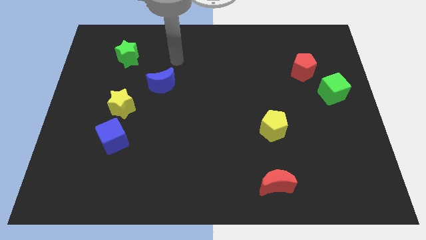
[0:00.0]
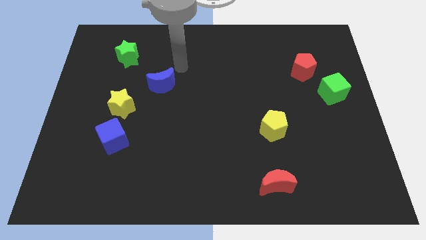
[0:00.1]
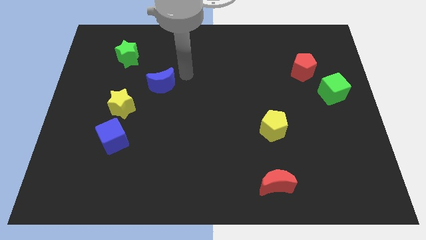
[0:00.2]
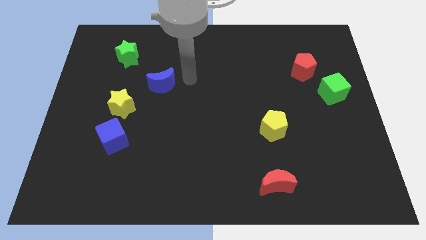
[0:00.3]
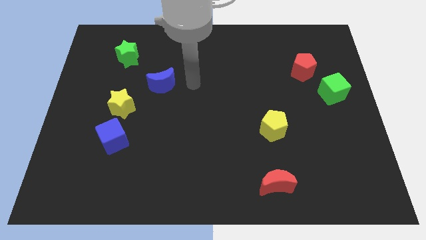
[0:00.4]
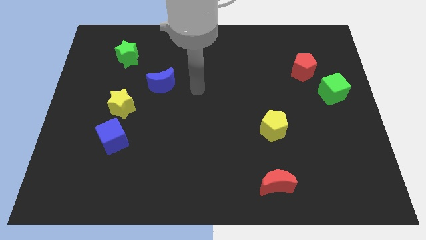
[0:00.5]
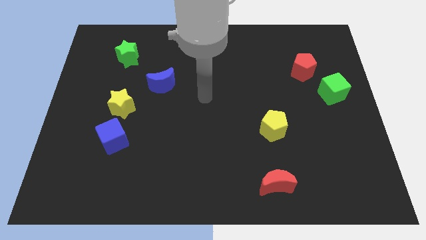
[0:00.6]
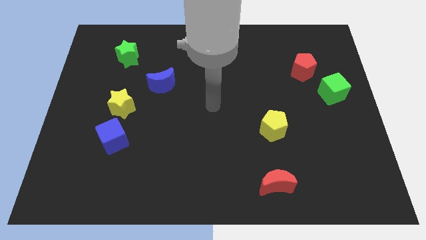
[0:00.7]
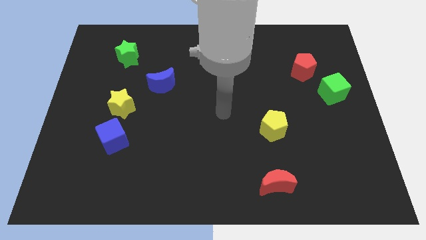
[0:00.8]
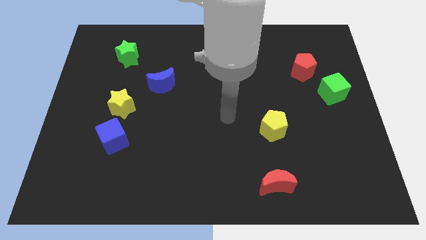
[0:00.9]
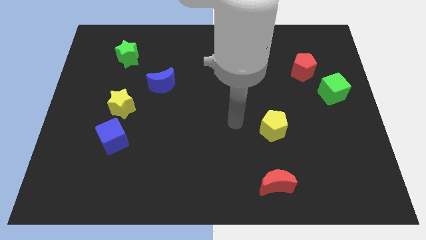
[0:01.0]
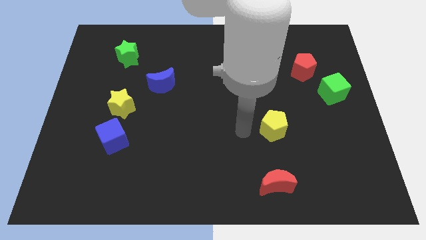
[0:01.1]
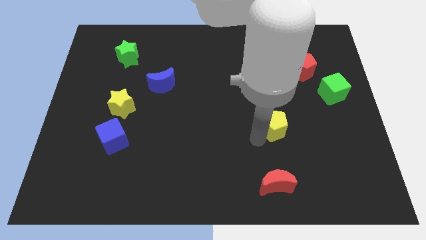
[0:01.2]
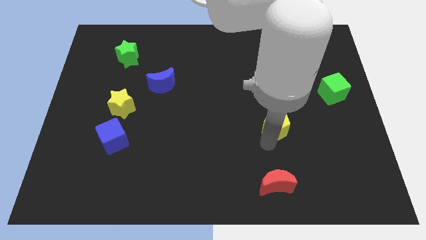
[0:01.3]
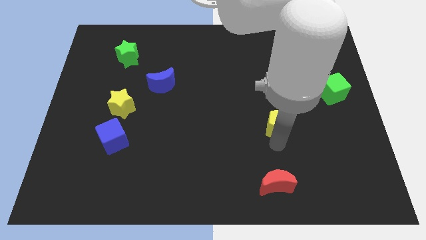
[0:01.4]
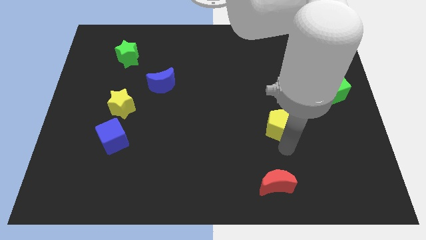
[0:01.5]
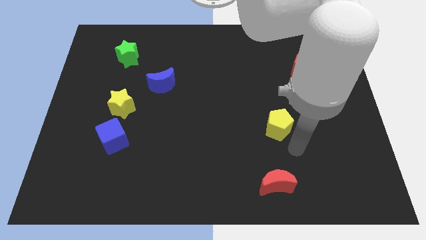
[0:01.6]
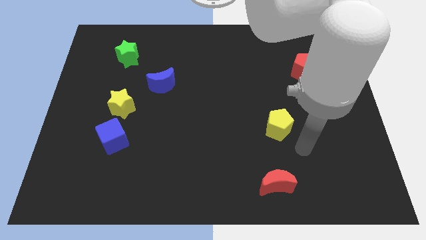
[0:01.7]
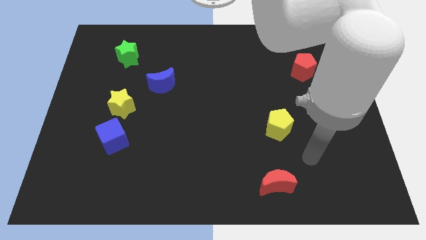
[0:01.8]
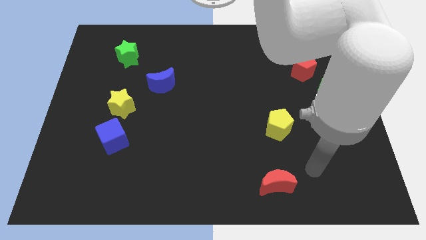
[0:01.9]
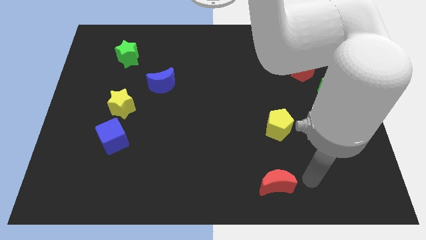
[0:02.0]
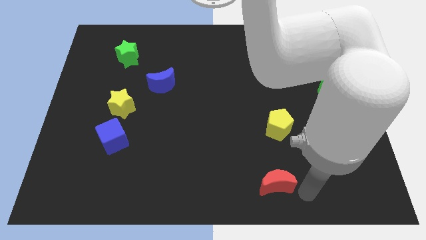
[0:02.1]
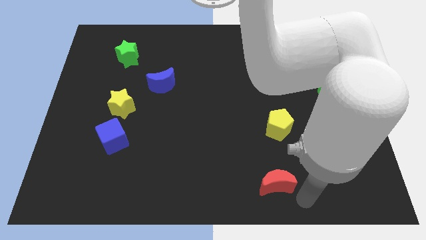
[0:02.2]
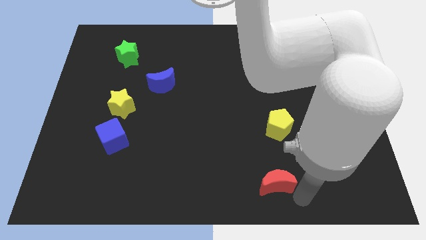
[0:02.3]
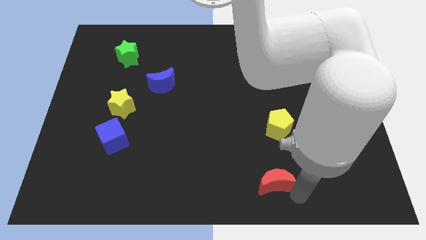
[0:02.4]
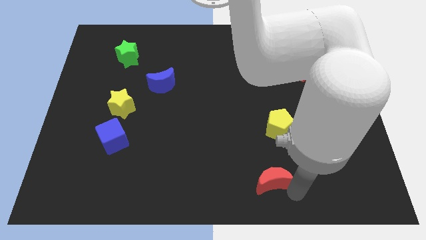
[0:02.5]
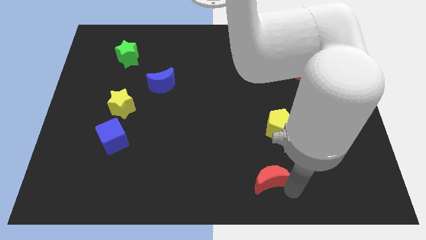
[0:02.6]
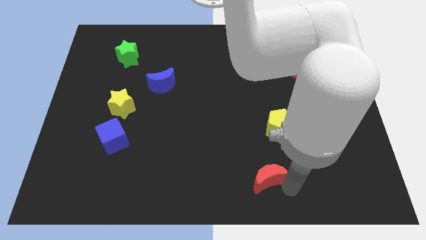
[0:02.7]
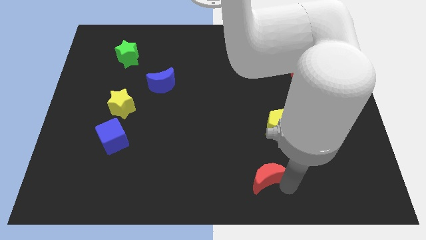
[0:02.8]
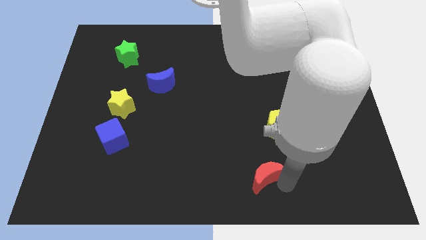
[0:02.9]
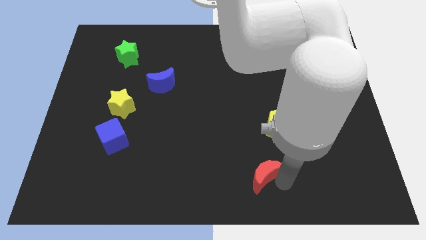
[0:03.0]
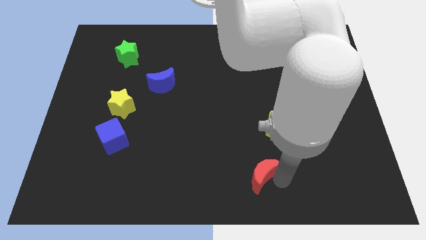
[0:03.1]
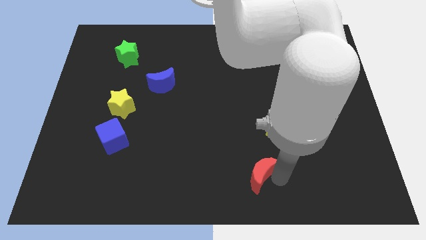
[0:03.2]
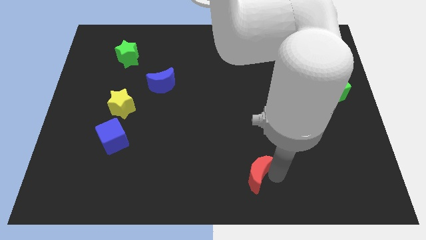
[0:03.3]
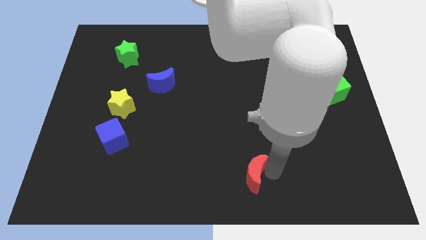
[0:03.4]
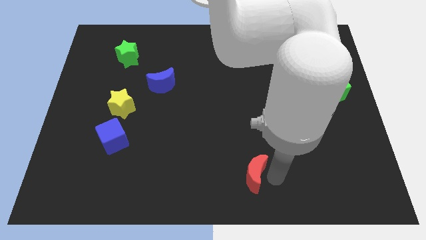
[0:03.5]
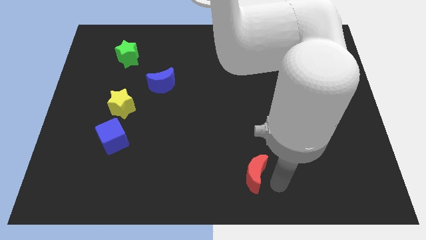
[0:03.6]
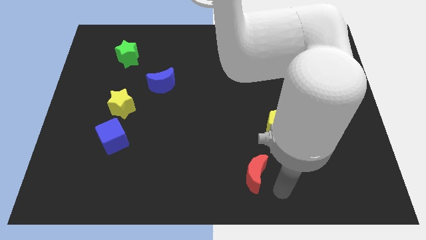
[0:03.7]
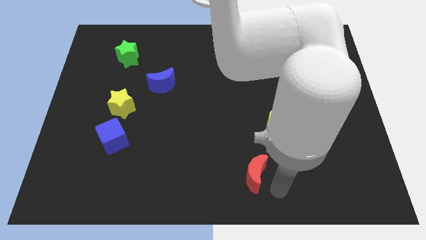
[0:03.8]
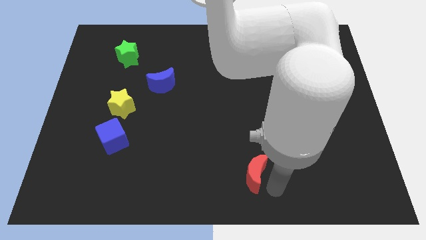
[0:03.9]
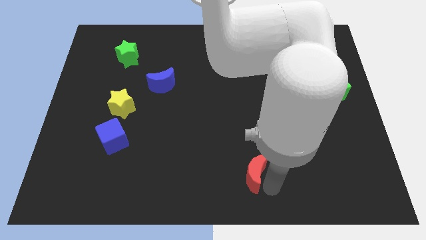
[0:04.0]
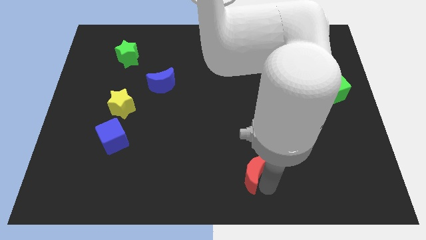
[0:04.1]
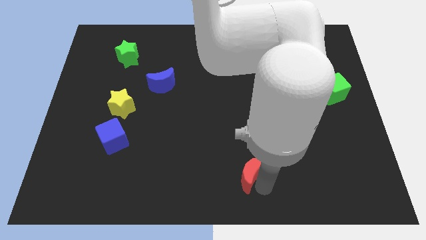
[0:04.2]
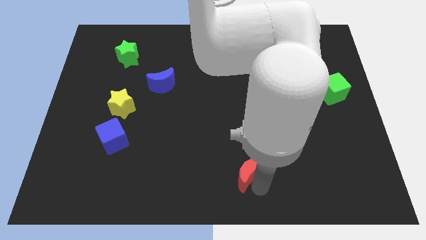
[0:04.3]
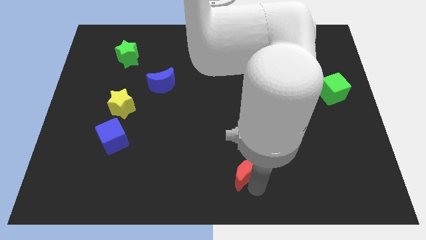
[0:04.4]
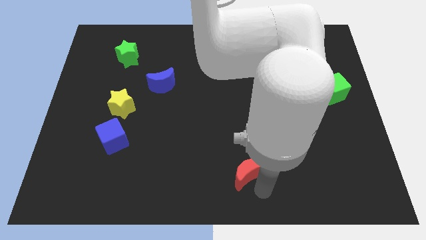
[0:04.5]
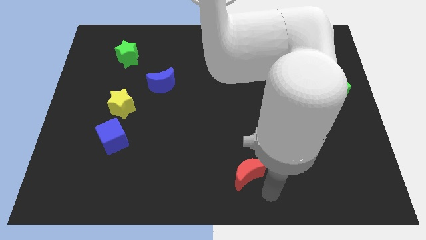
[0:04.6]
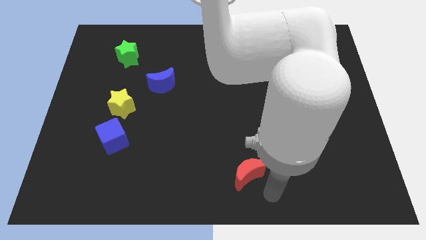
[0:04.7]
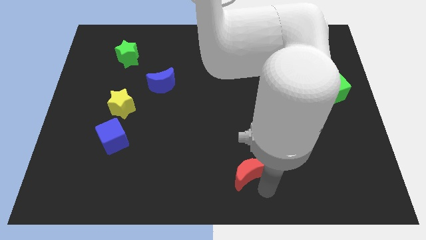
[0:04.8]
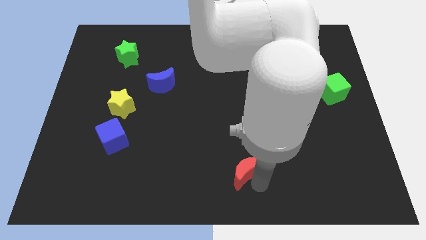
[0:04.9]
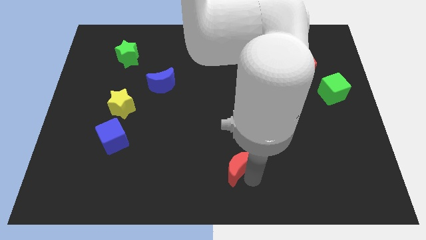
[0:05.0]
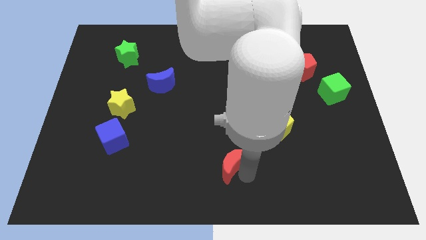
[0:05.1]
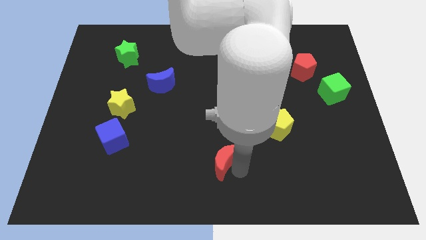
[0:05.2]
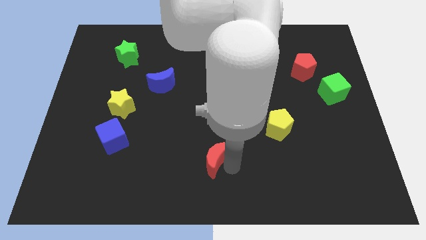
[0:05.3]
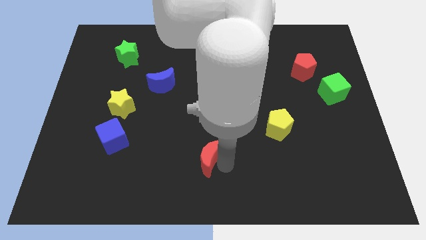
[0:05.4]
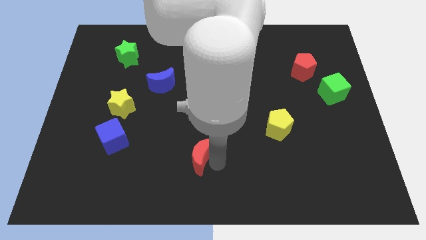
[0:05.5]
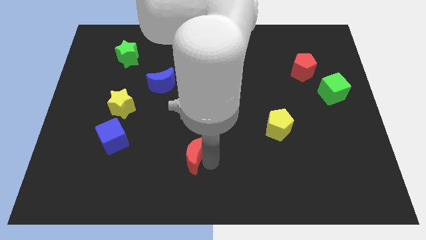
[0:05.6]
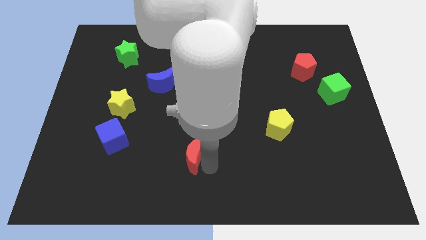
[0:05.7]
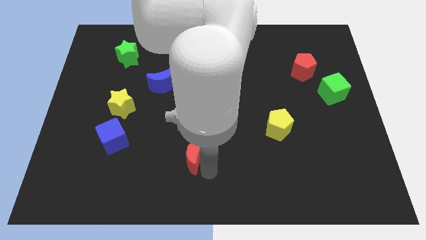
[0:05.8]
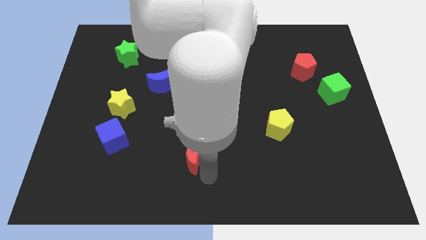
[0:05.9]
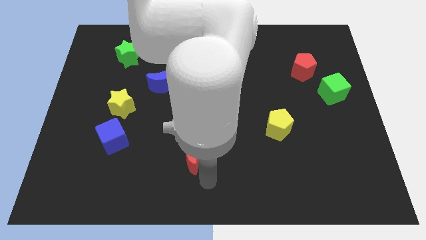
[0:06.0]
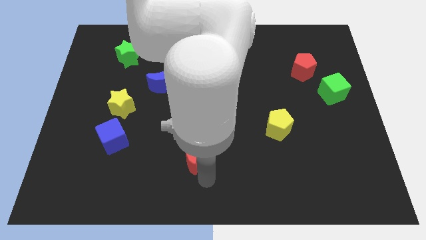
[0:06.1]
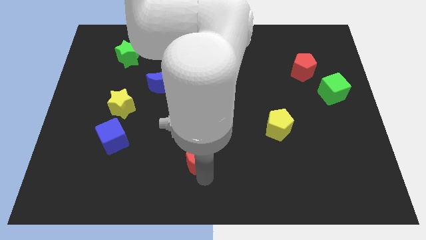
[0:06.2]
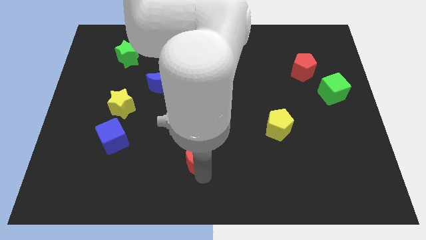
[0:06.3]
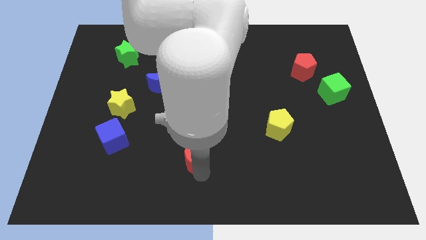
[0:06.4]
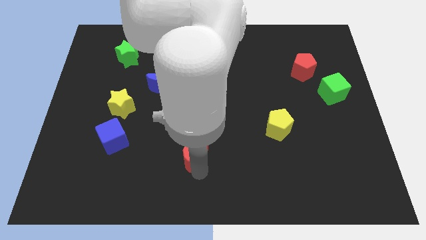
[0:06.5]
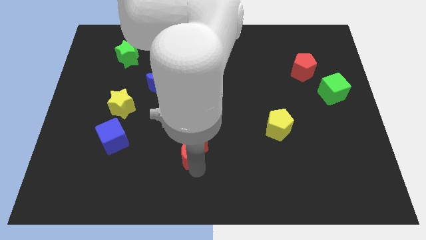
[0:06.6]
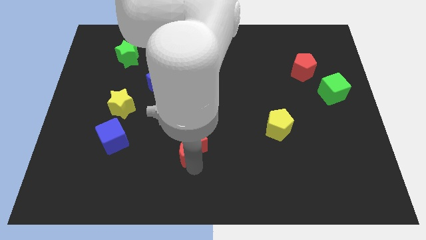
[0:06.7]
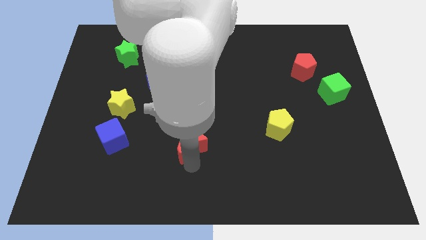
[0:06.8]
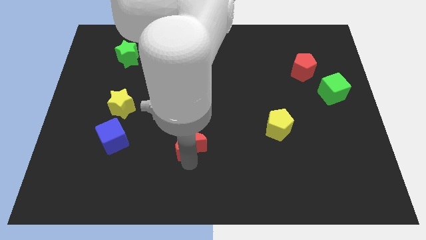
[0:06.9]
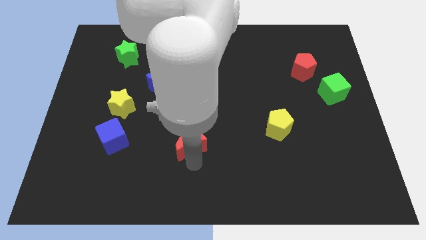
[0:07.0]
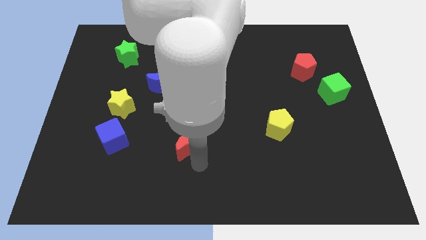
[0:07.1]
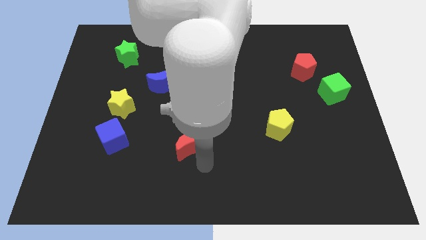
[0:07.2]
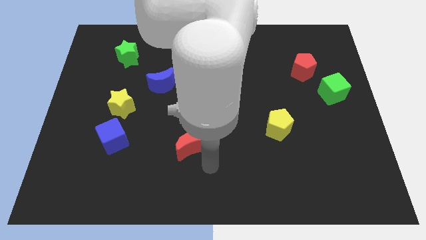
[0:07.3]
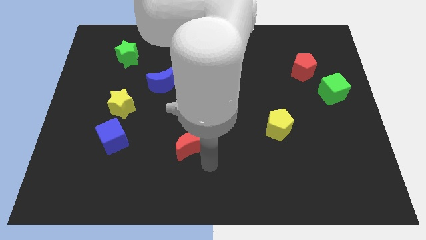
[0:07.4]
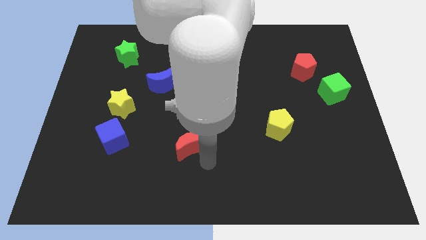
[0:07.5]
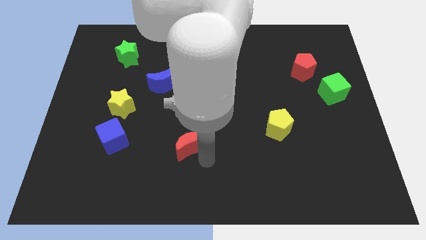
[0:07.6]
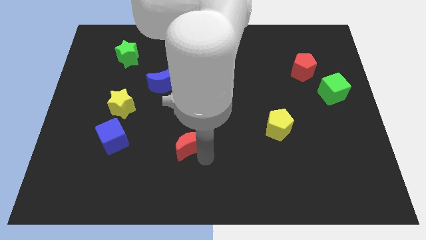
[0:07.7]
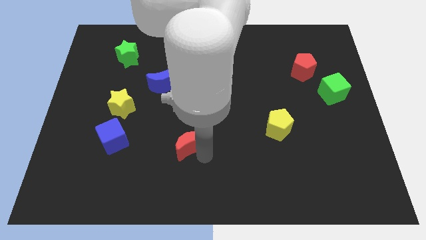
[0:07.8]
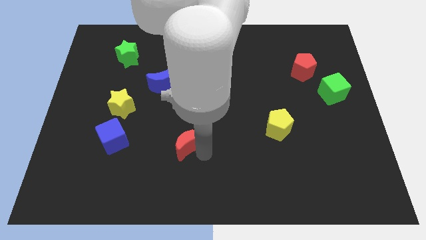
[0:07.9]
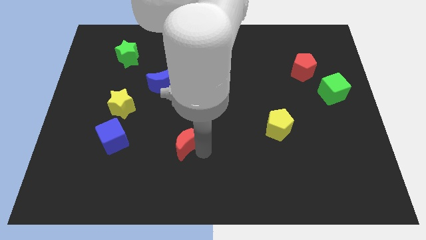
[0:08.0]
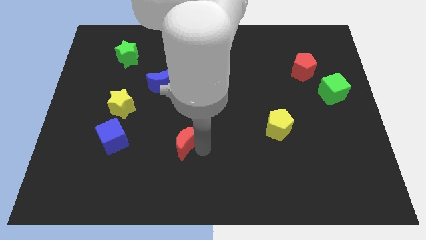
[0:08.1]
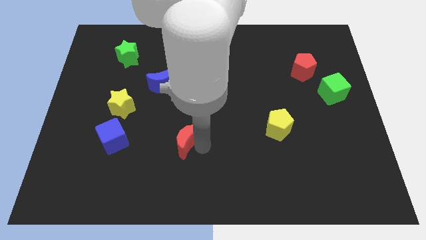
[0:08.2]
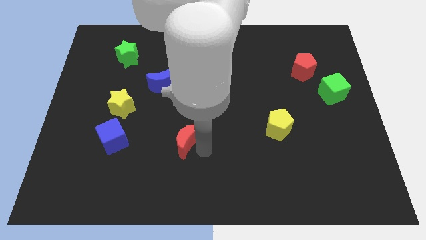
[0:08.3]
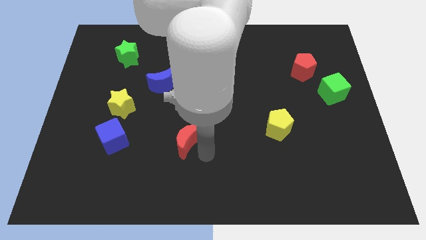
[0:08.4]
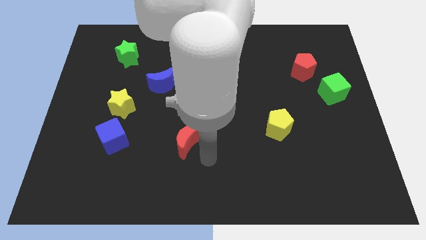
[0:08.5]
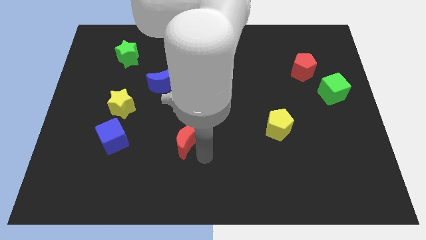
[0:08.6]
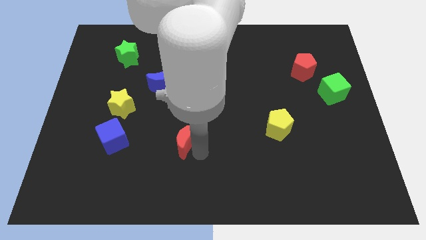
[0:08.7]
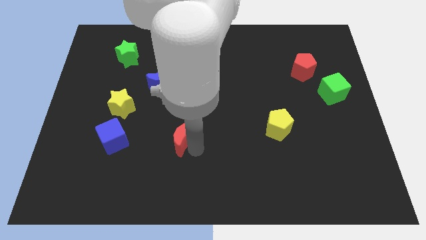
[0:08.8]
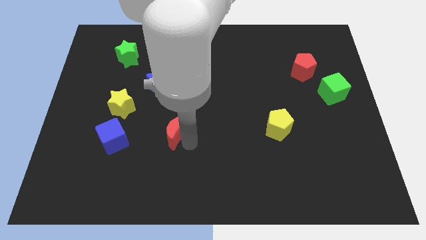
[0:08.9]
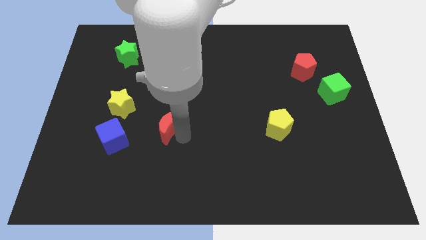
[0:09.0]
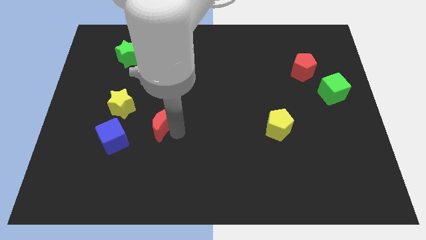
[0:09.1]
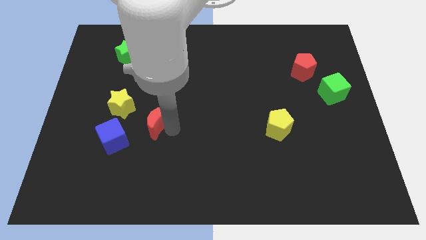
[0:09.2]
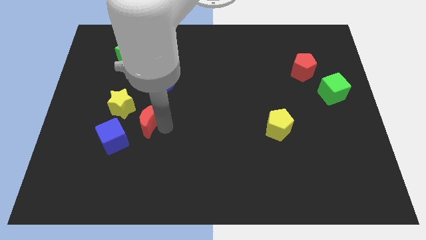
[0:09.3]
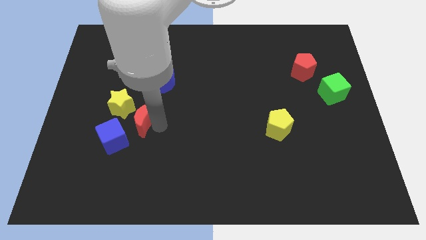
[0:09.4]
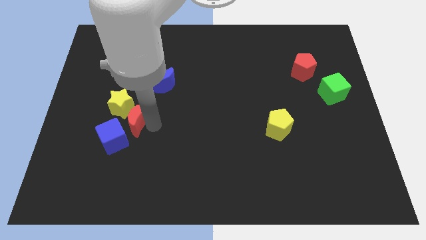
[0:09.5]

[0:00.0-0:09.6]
put the red moon towards the yellow star
